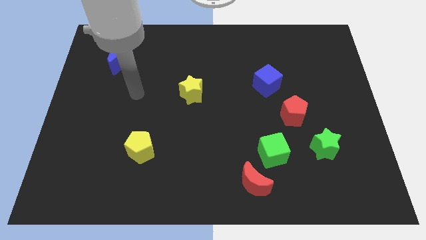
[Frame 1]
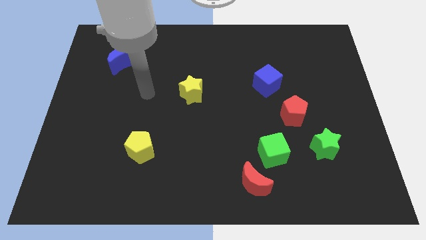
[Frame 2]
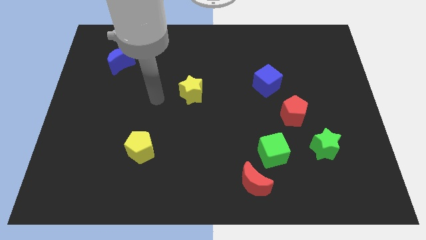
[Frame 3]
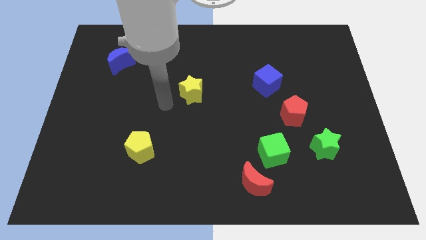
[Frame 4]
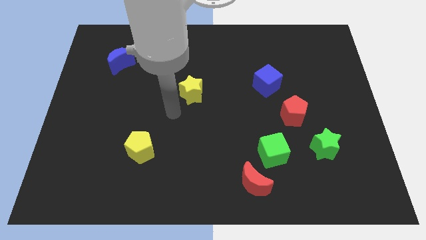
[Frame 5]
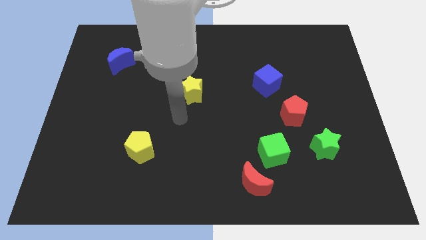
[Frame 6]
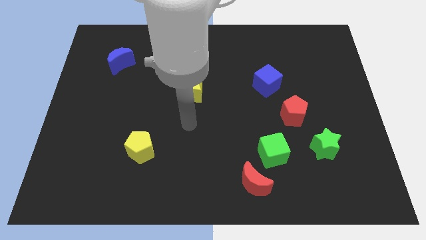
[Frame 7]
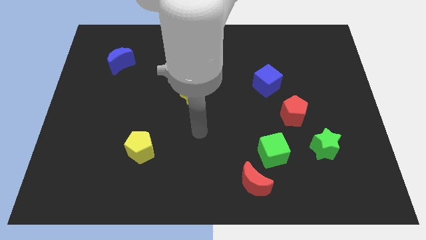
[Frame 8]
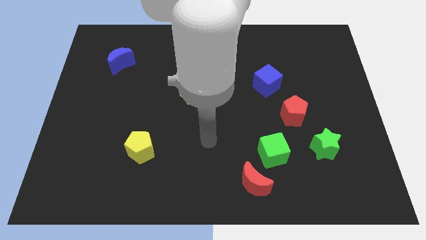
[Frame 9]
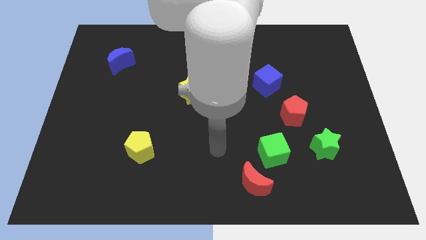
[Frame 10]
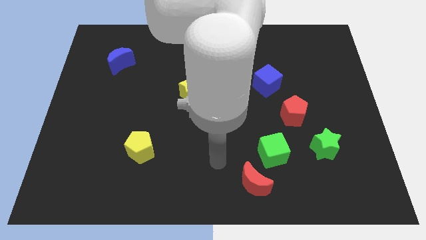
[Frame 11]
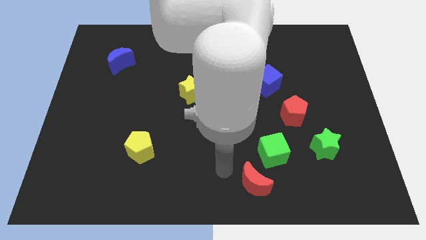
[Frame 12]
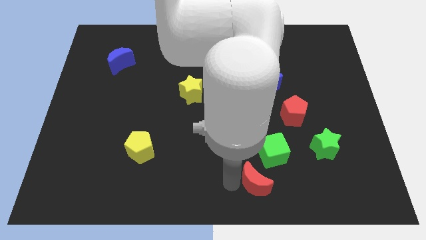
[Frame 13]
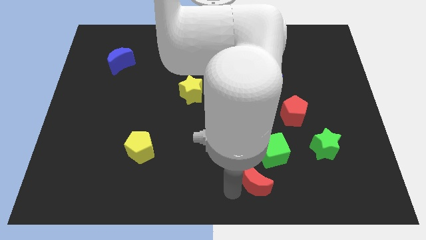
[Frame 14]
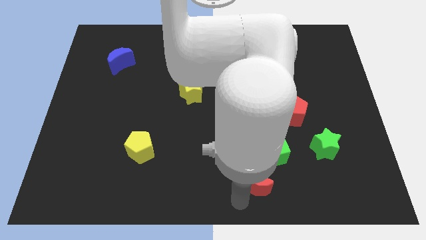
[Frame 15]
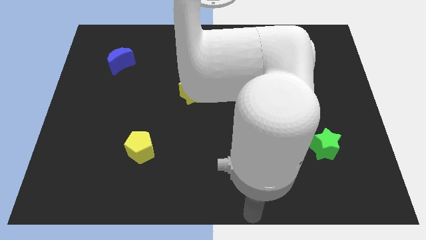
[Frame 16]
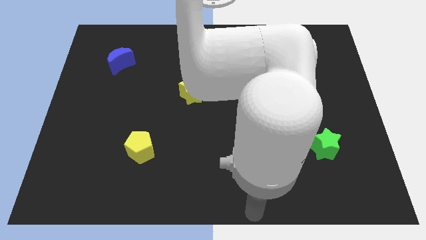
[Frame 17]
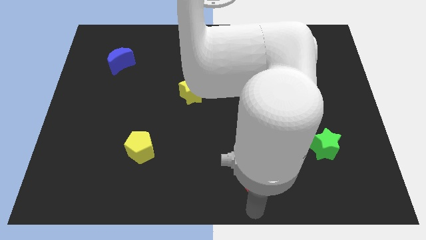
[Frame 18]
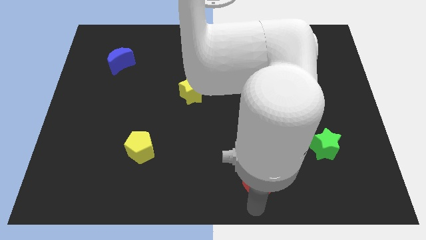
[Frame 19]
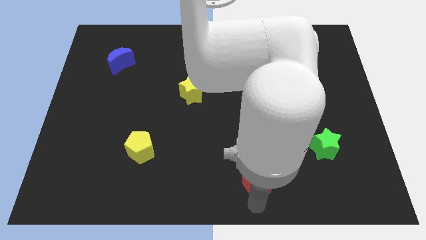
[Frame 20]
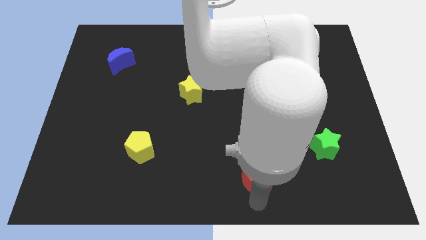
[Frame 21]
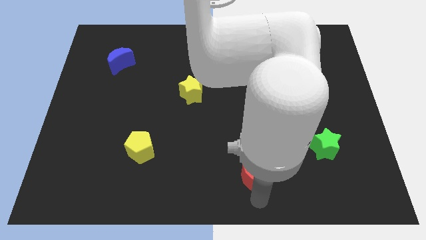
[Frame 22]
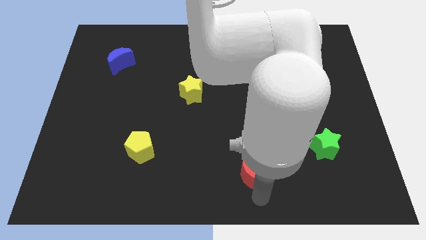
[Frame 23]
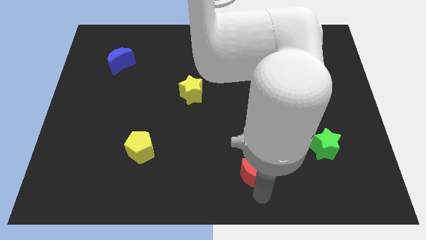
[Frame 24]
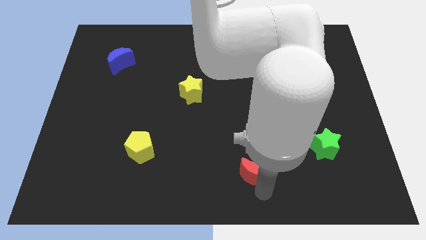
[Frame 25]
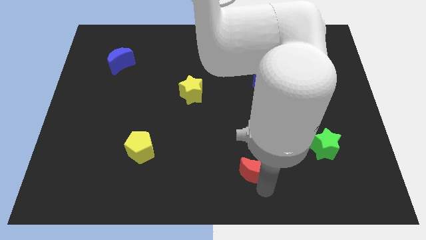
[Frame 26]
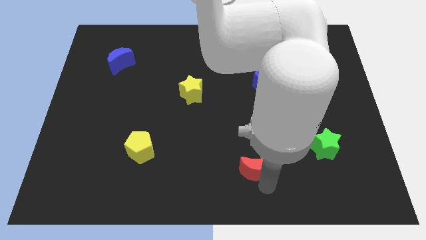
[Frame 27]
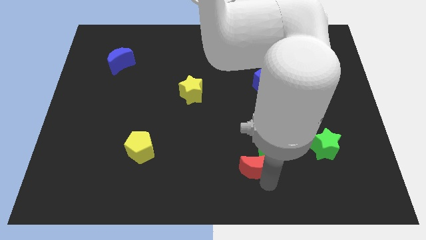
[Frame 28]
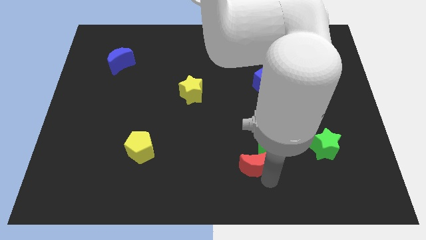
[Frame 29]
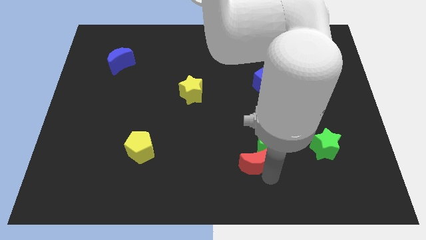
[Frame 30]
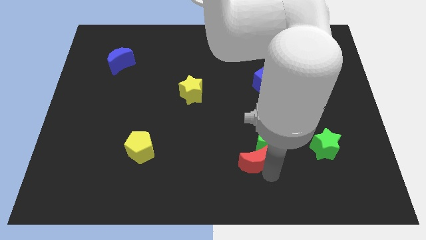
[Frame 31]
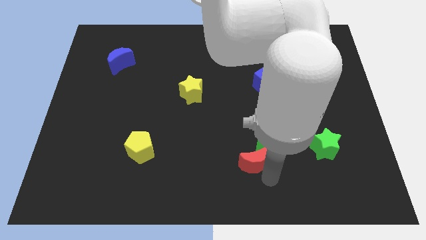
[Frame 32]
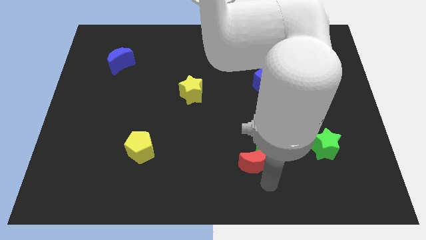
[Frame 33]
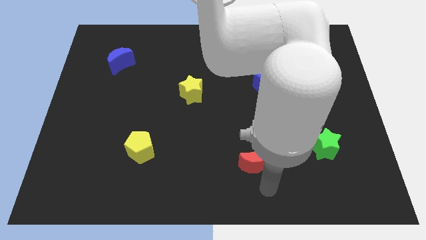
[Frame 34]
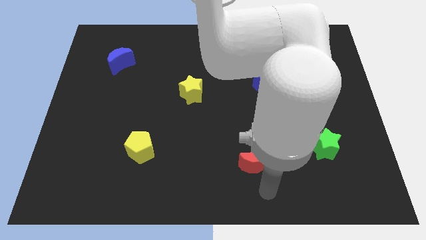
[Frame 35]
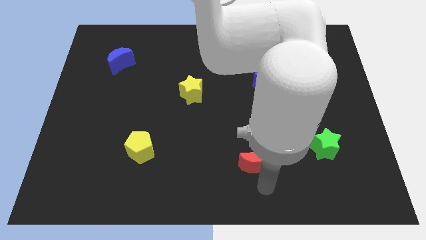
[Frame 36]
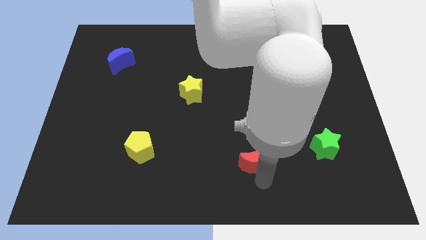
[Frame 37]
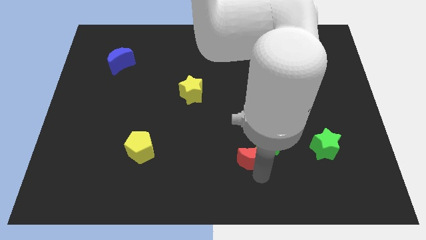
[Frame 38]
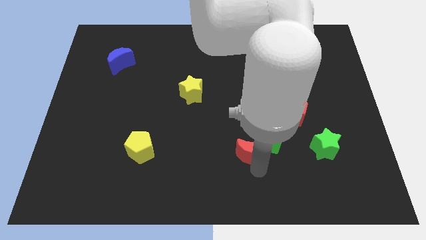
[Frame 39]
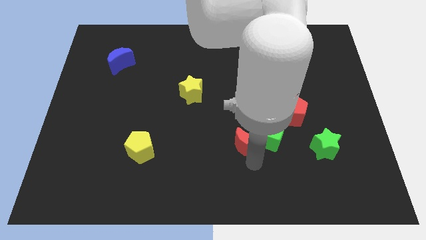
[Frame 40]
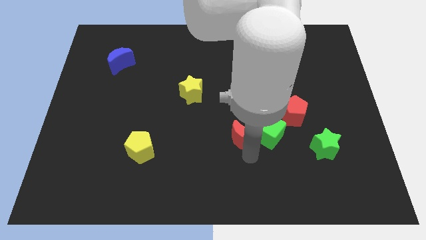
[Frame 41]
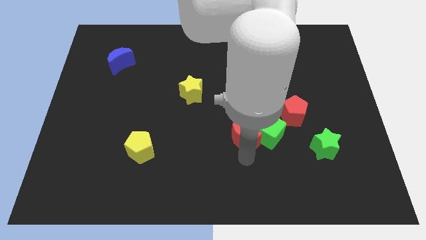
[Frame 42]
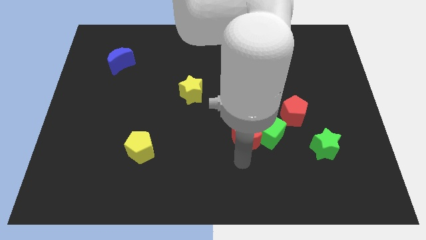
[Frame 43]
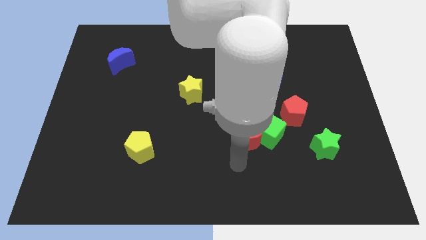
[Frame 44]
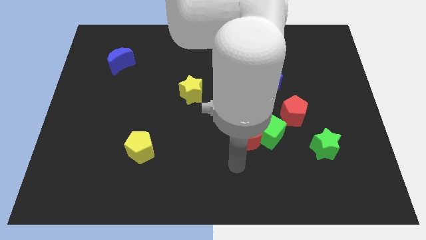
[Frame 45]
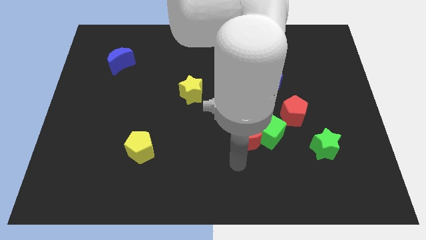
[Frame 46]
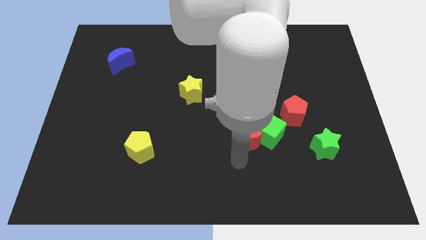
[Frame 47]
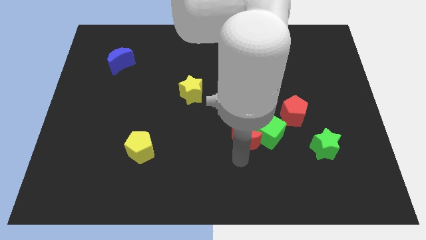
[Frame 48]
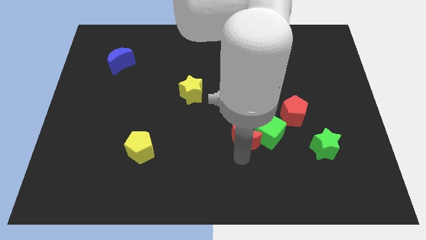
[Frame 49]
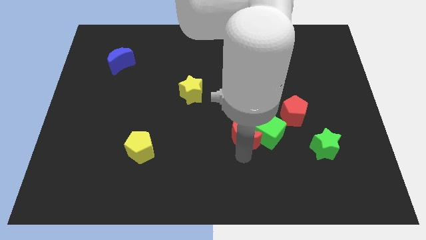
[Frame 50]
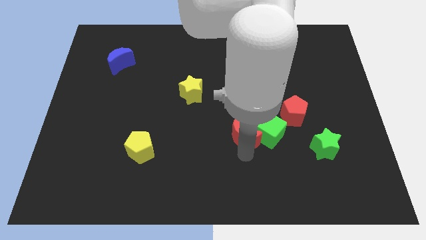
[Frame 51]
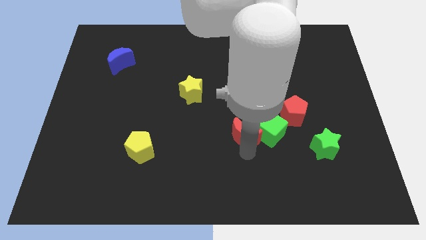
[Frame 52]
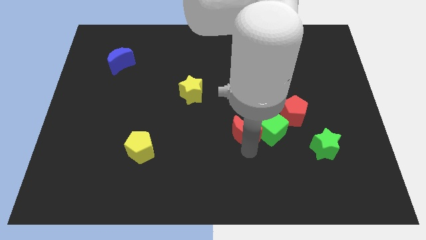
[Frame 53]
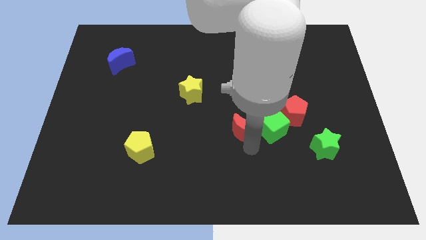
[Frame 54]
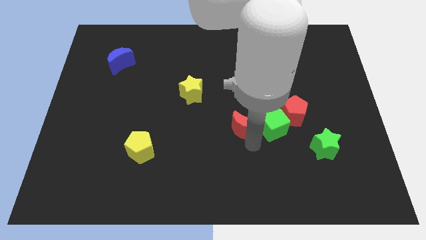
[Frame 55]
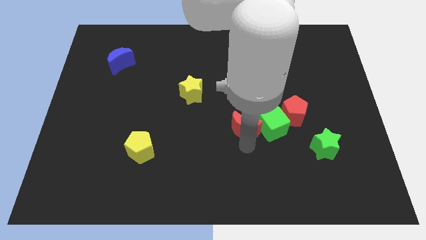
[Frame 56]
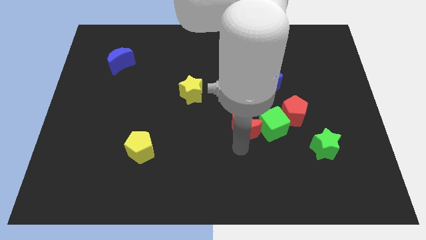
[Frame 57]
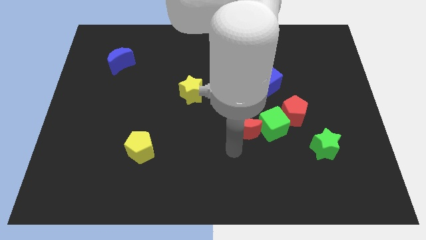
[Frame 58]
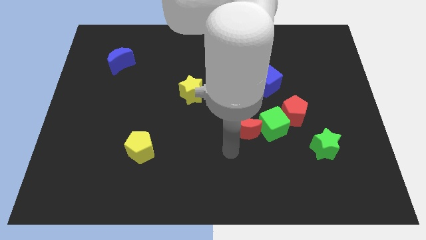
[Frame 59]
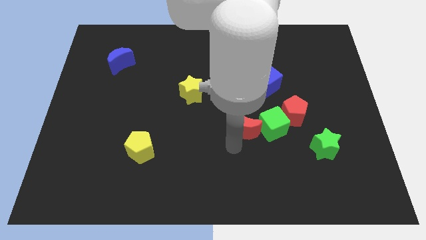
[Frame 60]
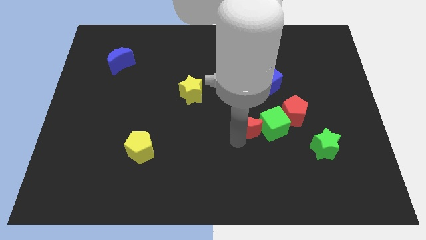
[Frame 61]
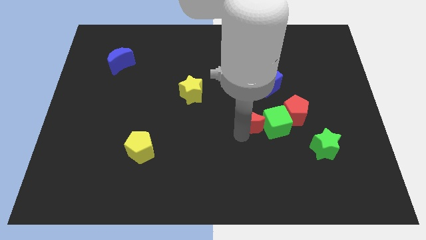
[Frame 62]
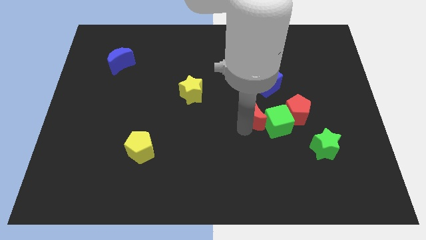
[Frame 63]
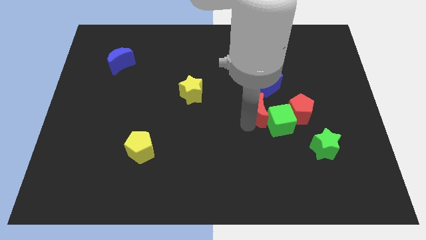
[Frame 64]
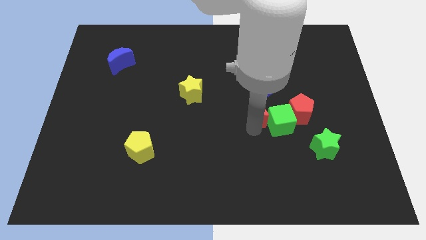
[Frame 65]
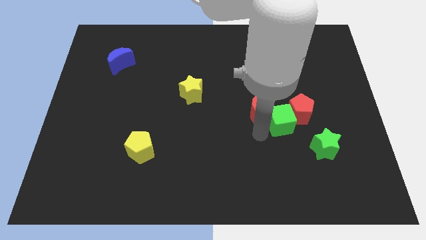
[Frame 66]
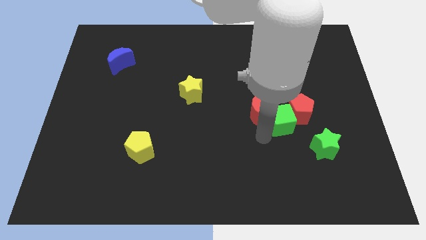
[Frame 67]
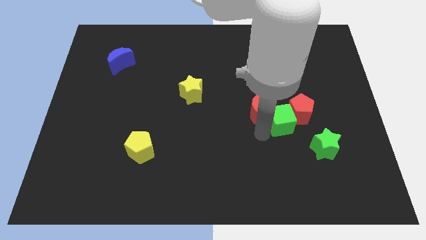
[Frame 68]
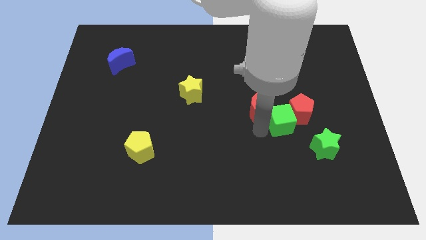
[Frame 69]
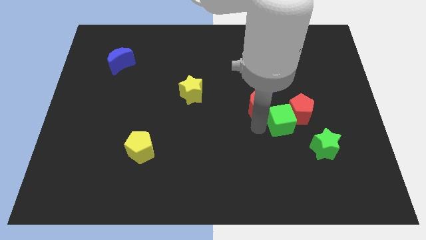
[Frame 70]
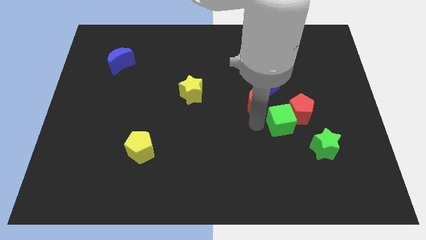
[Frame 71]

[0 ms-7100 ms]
slide the red moon upwards

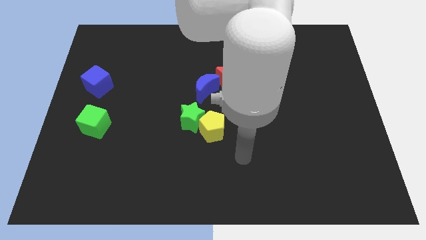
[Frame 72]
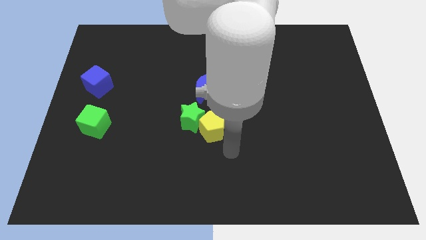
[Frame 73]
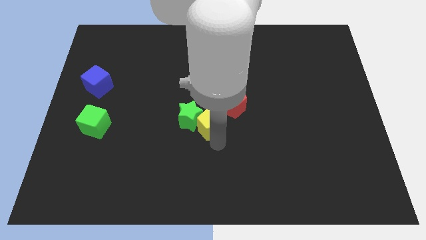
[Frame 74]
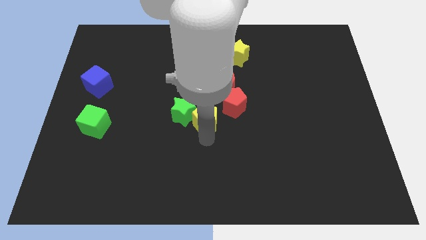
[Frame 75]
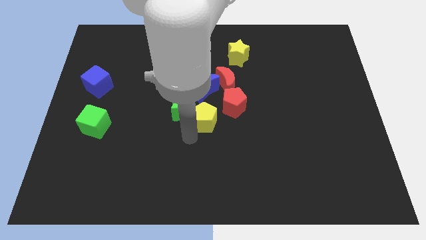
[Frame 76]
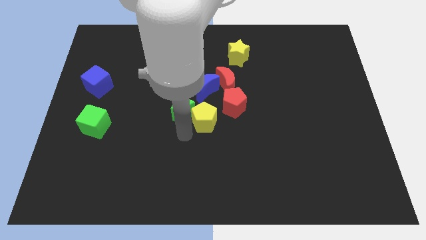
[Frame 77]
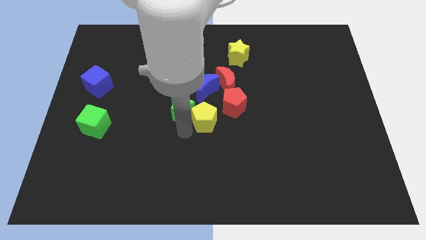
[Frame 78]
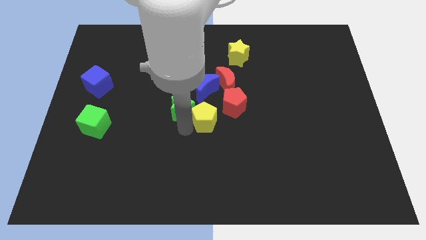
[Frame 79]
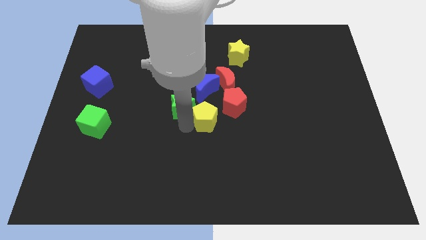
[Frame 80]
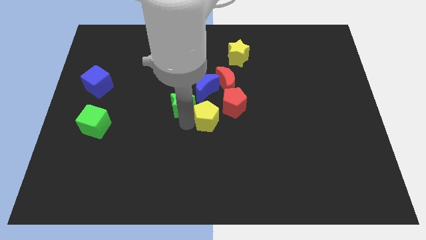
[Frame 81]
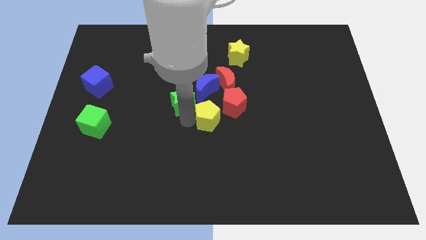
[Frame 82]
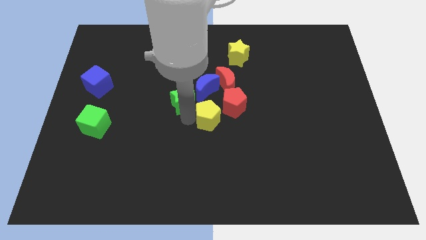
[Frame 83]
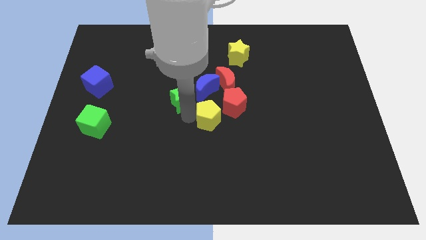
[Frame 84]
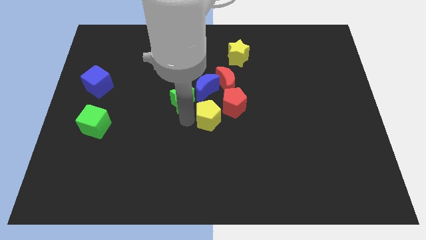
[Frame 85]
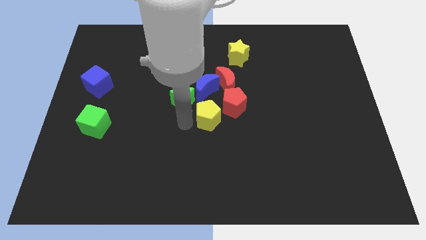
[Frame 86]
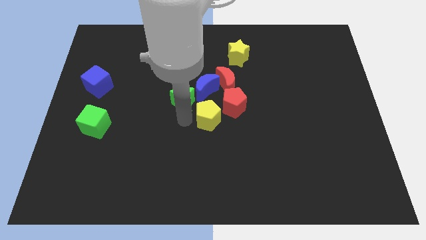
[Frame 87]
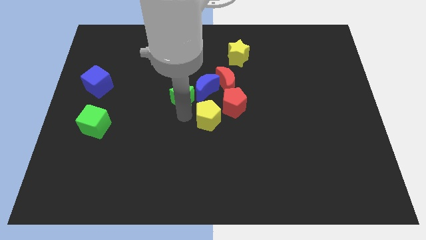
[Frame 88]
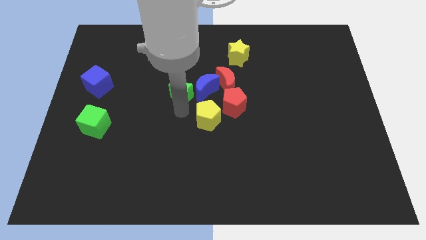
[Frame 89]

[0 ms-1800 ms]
slightly move the green star upwards
